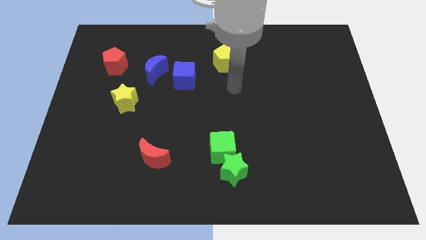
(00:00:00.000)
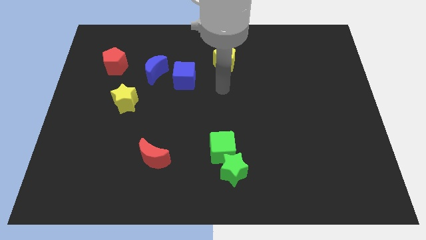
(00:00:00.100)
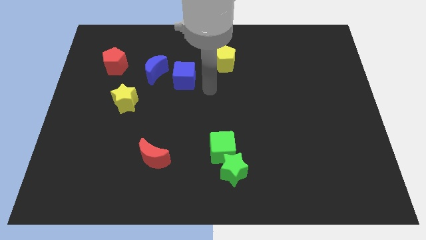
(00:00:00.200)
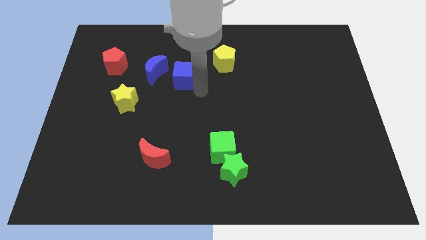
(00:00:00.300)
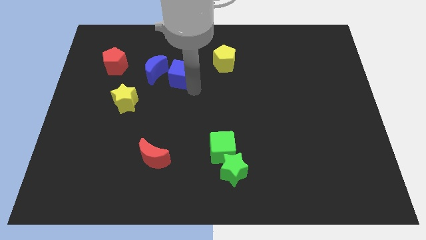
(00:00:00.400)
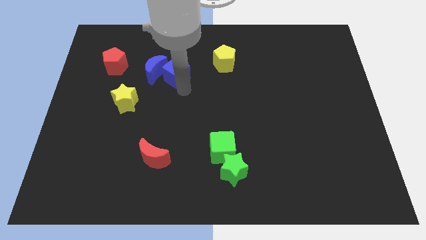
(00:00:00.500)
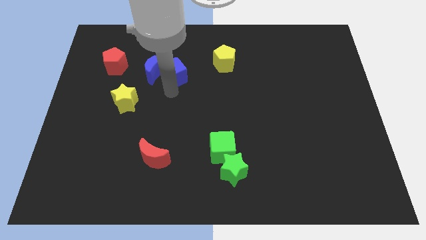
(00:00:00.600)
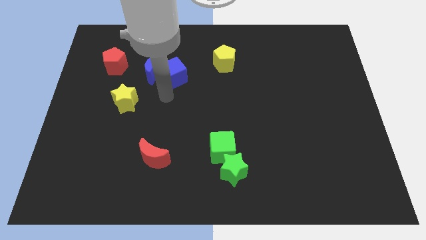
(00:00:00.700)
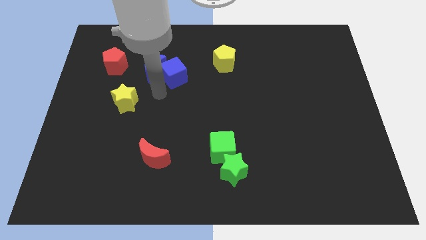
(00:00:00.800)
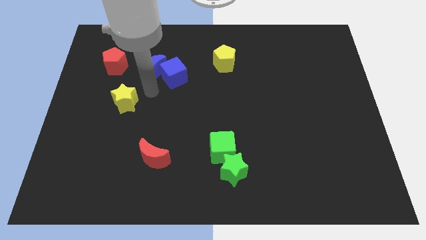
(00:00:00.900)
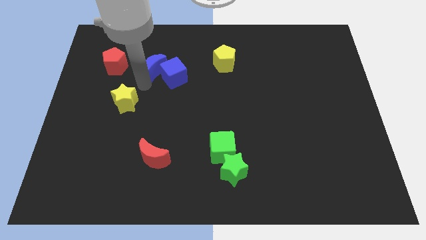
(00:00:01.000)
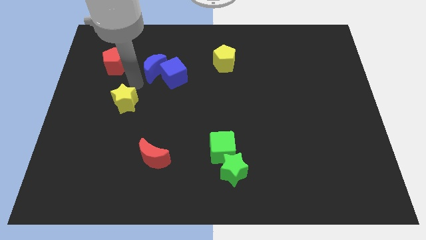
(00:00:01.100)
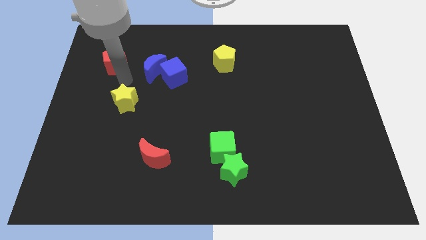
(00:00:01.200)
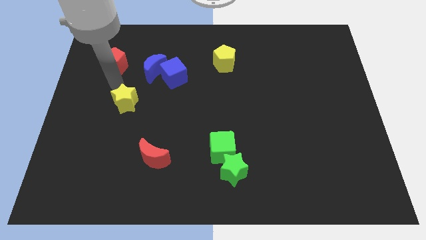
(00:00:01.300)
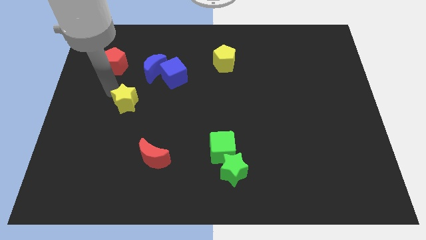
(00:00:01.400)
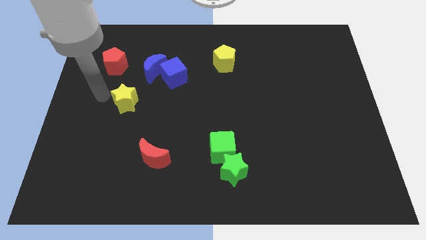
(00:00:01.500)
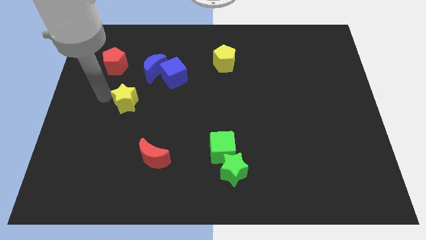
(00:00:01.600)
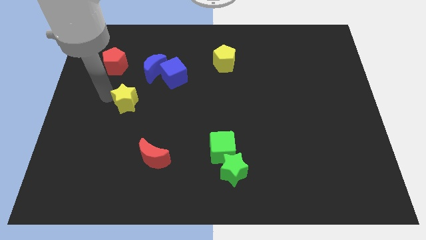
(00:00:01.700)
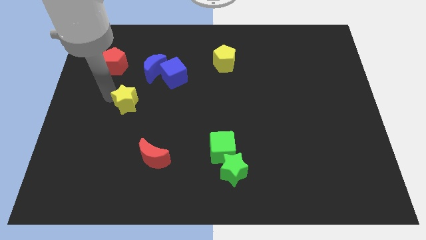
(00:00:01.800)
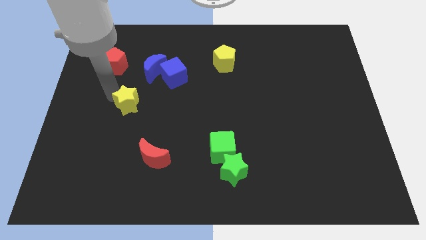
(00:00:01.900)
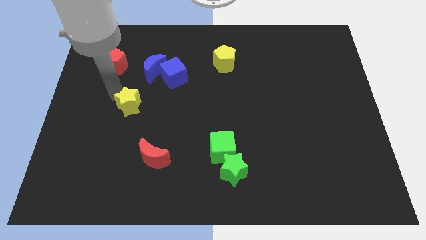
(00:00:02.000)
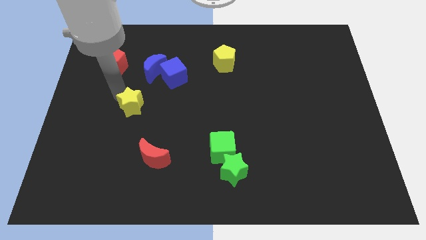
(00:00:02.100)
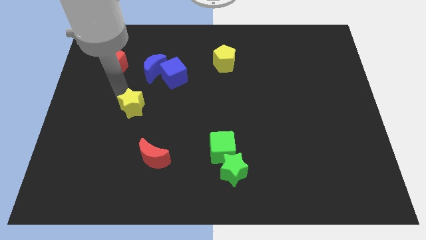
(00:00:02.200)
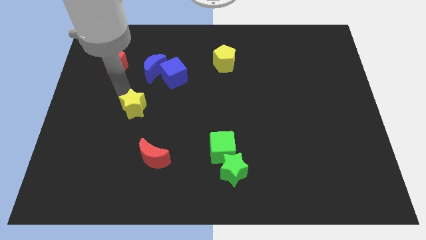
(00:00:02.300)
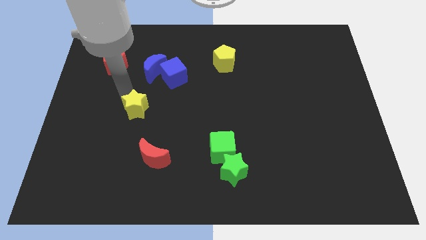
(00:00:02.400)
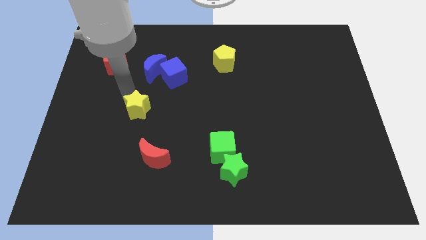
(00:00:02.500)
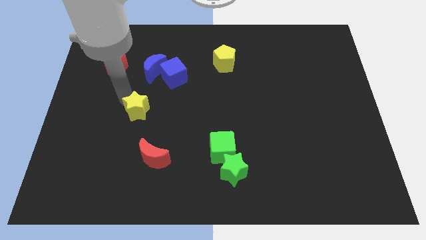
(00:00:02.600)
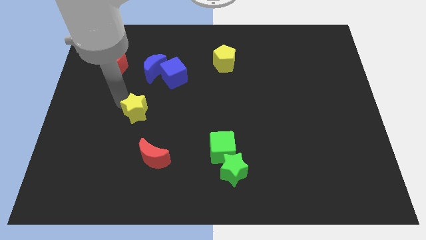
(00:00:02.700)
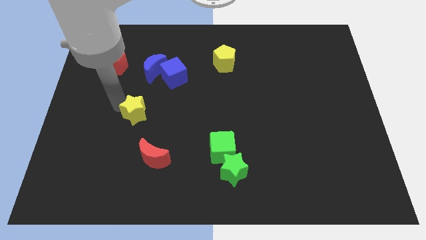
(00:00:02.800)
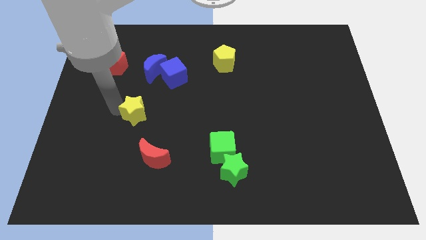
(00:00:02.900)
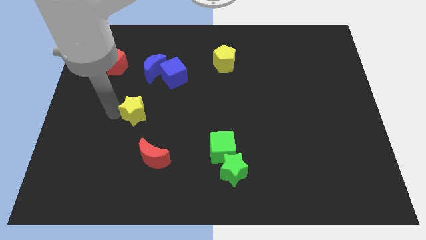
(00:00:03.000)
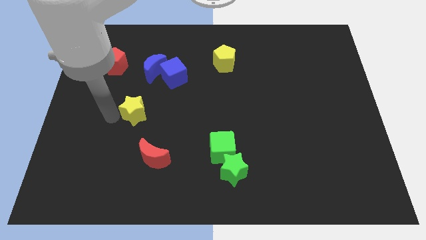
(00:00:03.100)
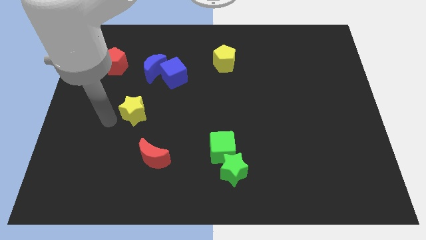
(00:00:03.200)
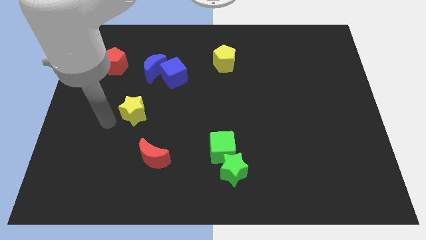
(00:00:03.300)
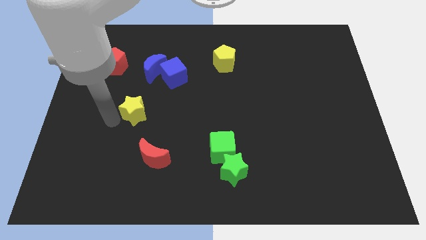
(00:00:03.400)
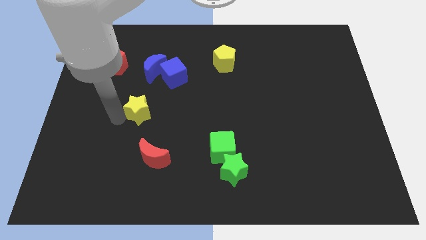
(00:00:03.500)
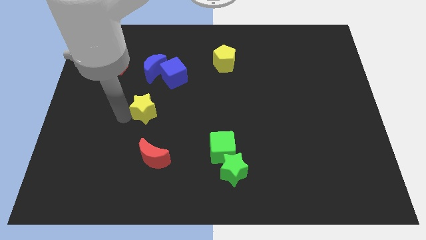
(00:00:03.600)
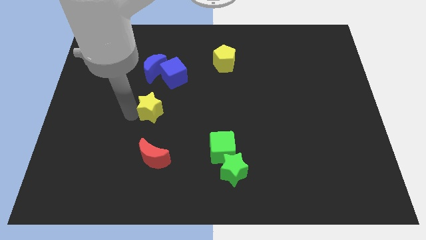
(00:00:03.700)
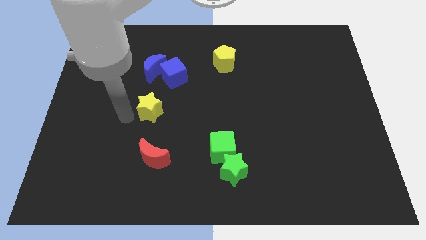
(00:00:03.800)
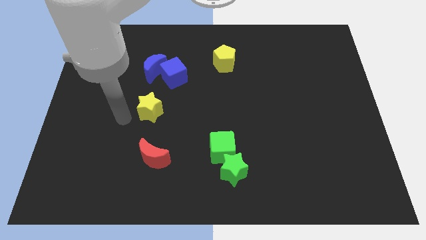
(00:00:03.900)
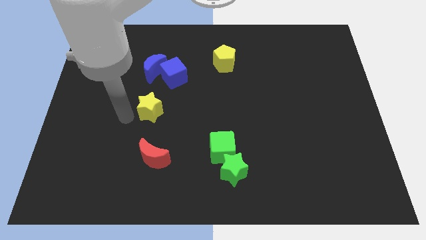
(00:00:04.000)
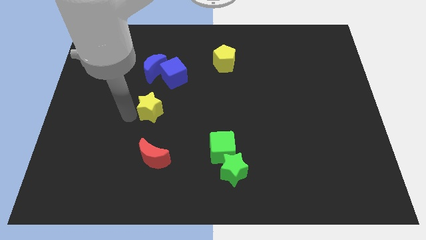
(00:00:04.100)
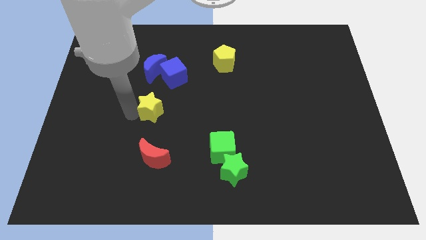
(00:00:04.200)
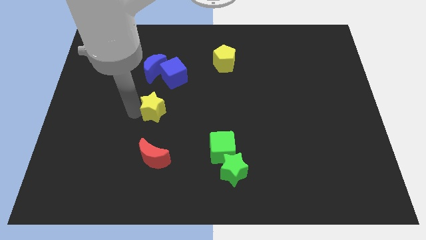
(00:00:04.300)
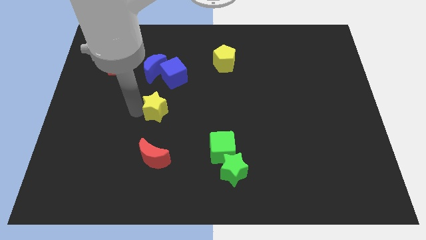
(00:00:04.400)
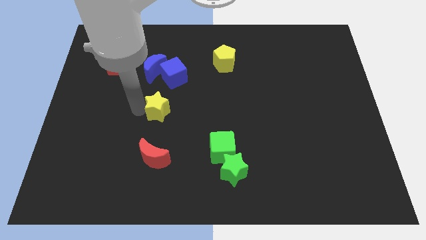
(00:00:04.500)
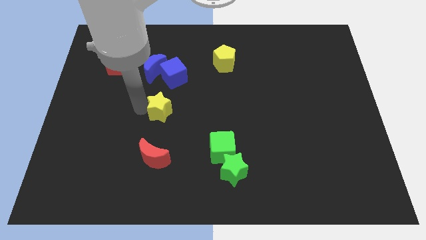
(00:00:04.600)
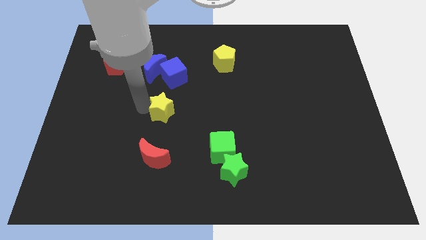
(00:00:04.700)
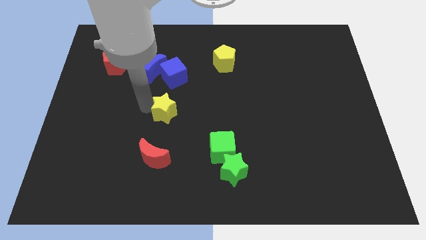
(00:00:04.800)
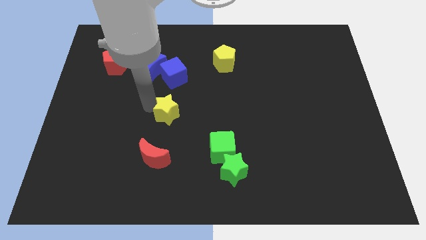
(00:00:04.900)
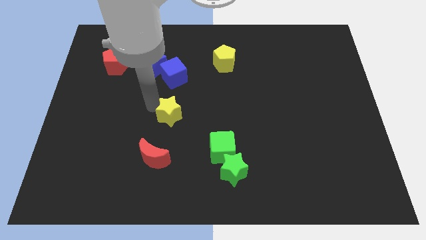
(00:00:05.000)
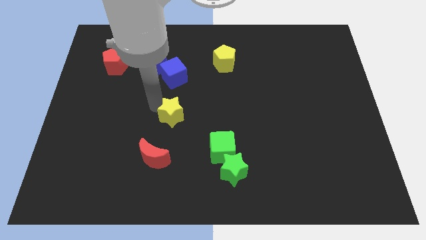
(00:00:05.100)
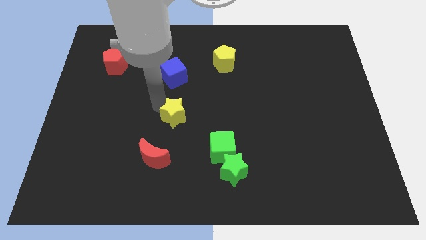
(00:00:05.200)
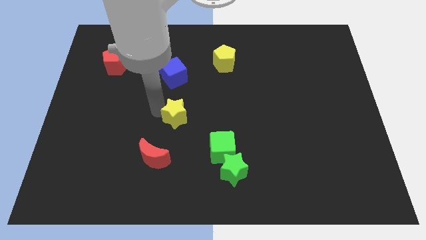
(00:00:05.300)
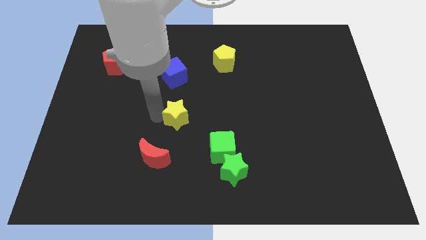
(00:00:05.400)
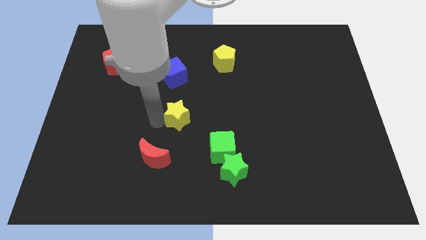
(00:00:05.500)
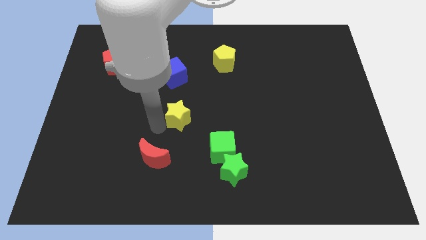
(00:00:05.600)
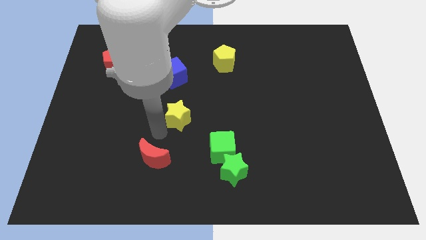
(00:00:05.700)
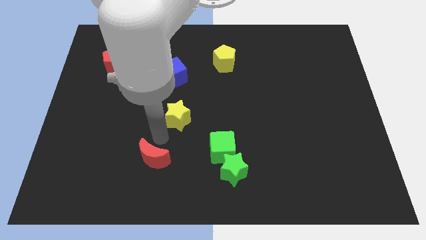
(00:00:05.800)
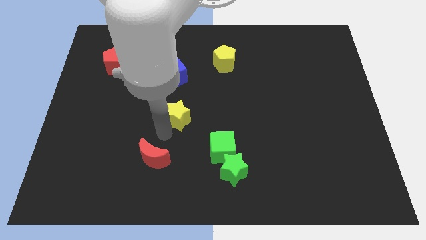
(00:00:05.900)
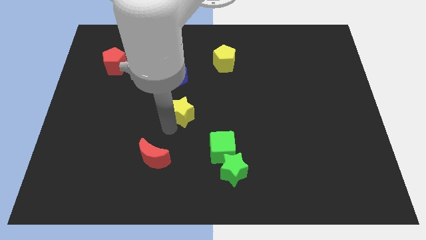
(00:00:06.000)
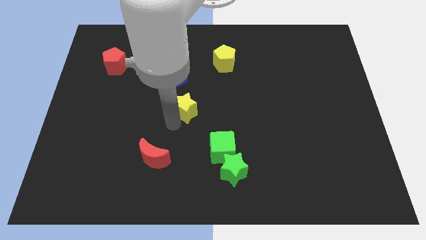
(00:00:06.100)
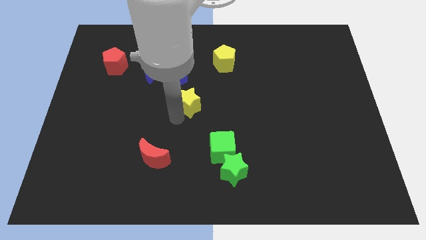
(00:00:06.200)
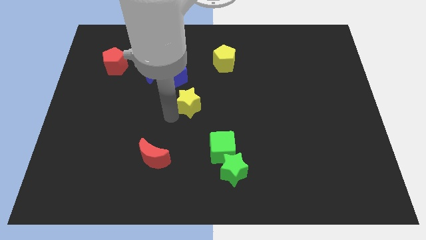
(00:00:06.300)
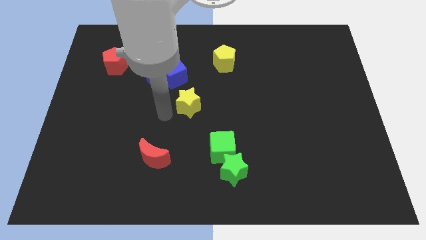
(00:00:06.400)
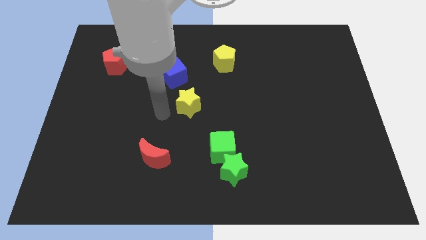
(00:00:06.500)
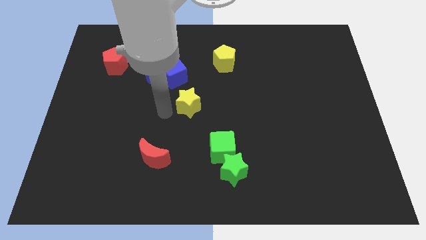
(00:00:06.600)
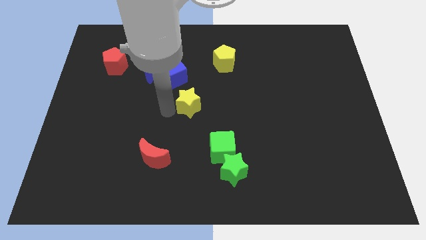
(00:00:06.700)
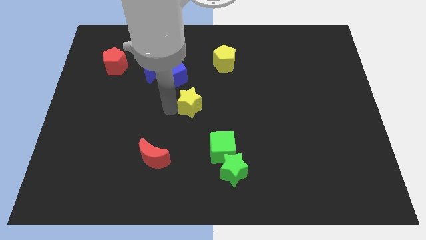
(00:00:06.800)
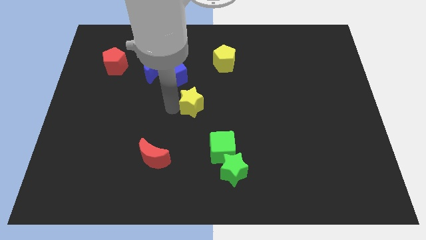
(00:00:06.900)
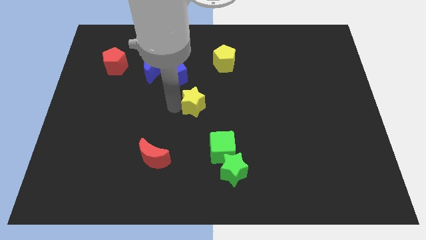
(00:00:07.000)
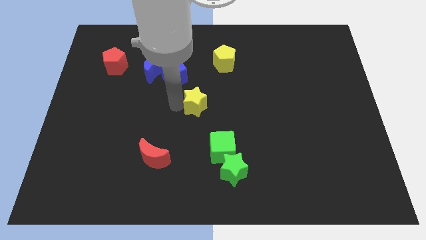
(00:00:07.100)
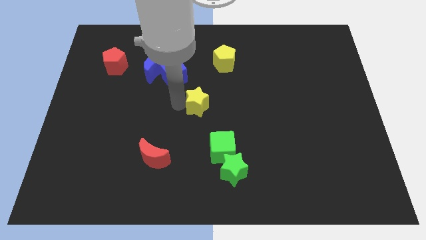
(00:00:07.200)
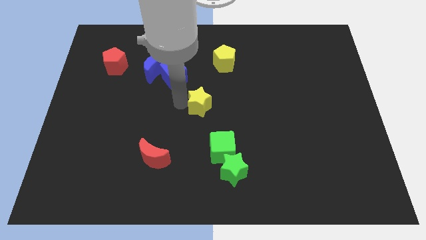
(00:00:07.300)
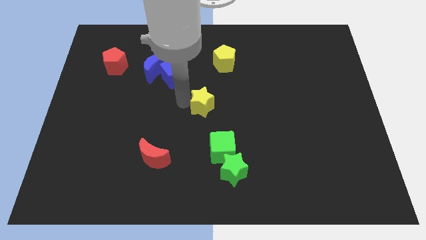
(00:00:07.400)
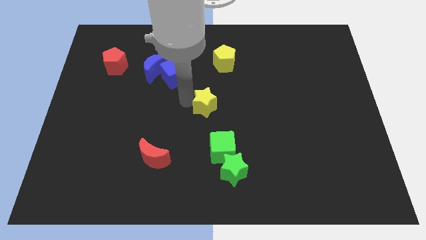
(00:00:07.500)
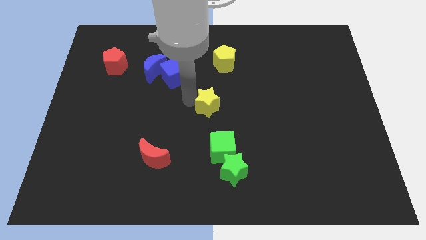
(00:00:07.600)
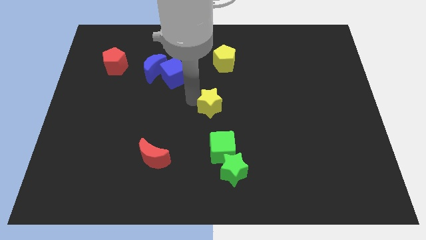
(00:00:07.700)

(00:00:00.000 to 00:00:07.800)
move the yellow star right

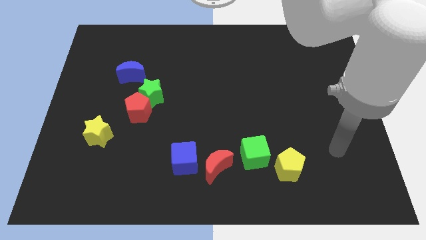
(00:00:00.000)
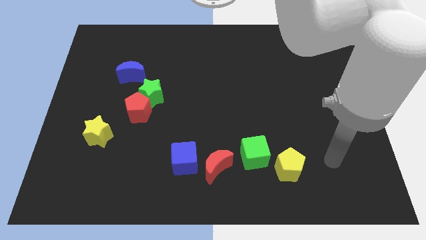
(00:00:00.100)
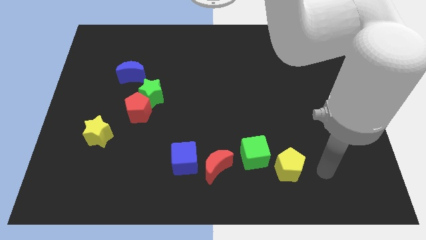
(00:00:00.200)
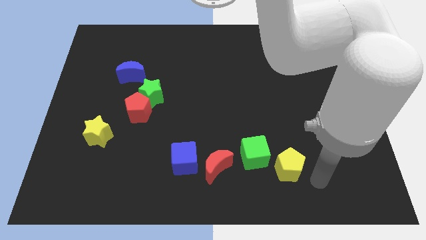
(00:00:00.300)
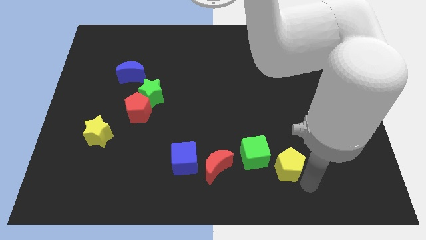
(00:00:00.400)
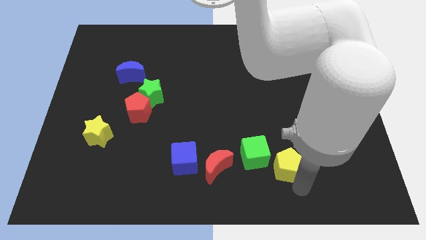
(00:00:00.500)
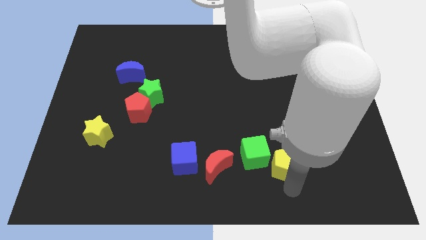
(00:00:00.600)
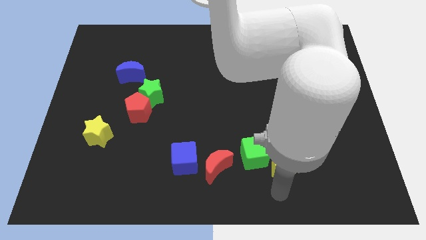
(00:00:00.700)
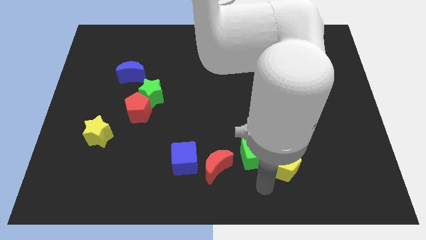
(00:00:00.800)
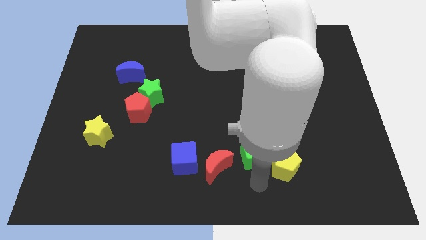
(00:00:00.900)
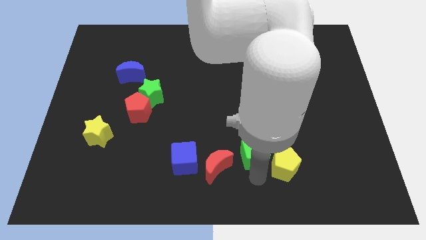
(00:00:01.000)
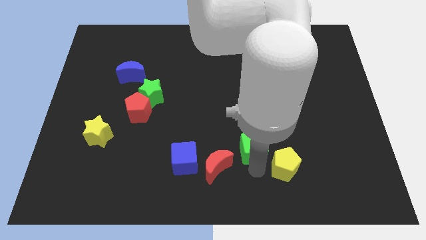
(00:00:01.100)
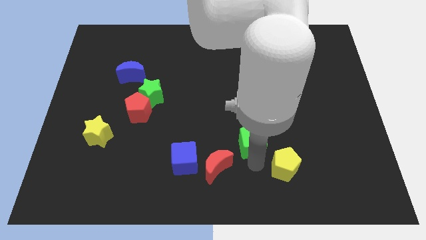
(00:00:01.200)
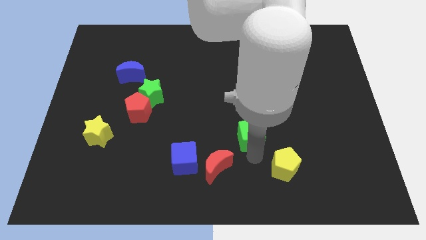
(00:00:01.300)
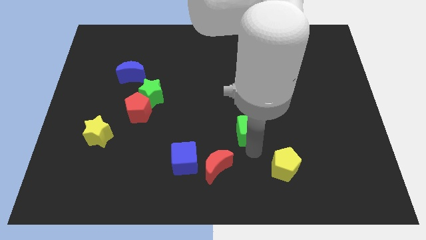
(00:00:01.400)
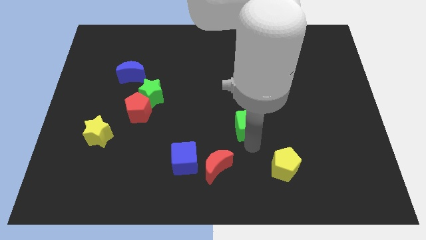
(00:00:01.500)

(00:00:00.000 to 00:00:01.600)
slightly slide the green cube upwards
